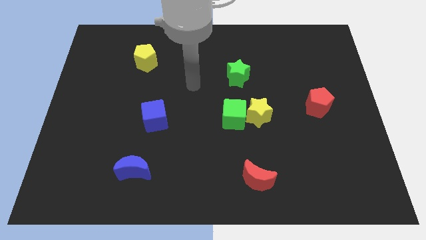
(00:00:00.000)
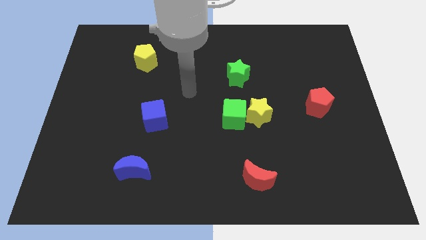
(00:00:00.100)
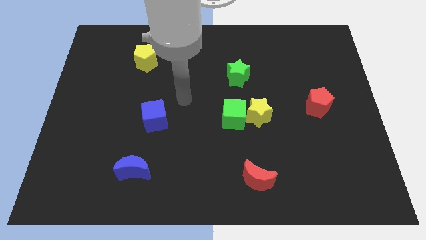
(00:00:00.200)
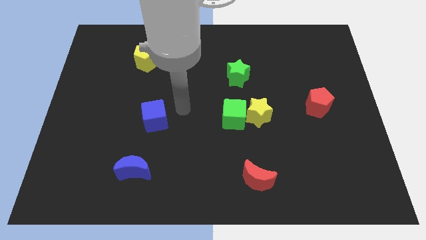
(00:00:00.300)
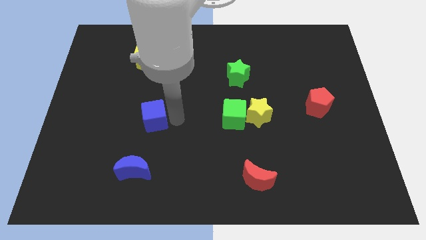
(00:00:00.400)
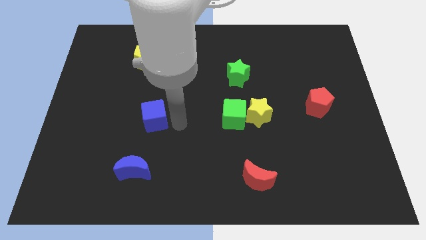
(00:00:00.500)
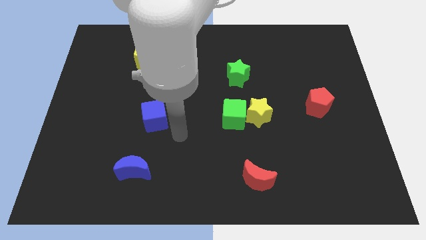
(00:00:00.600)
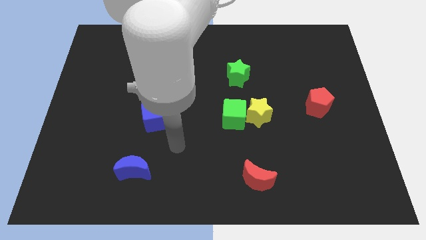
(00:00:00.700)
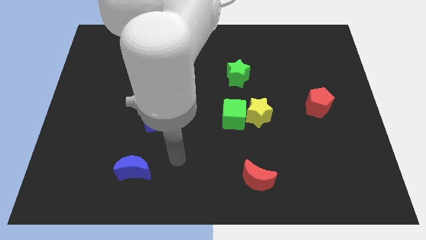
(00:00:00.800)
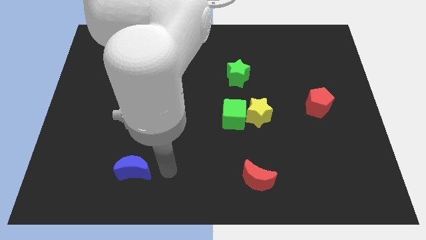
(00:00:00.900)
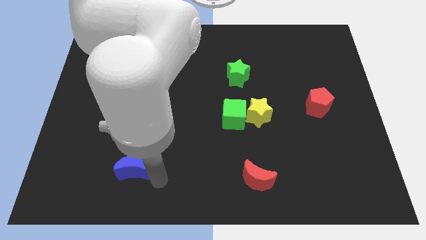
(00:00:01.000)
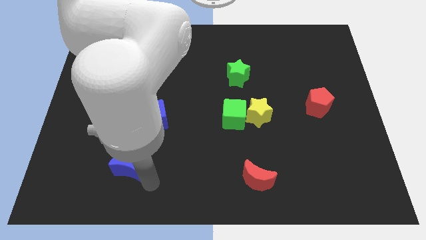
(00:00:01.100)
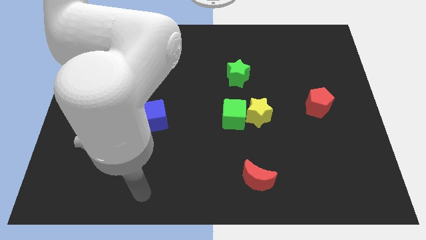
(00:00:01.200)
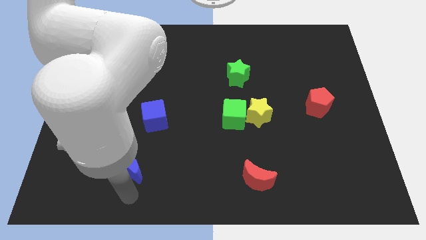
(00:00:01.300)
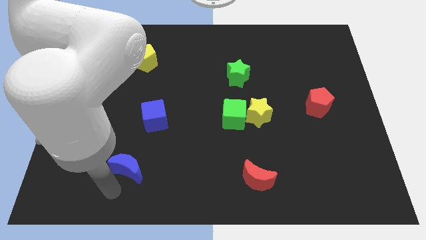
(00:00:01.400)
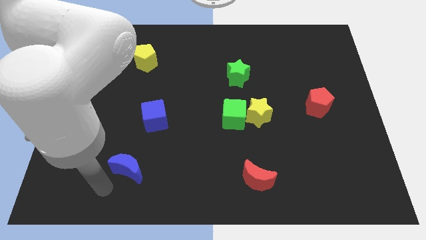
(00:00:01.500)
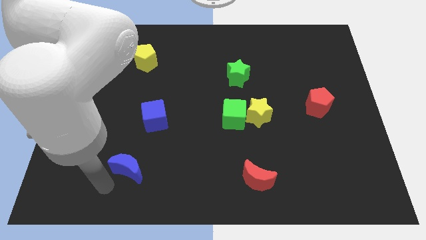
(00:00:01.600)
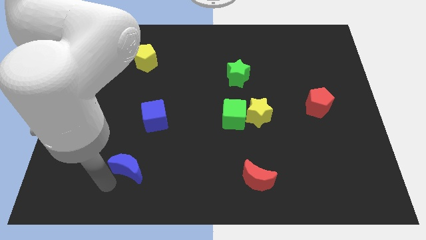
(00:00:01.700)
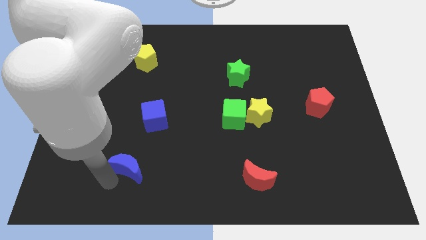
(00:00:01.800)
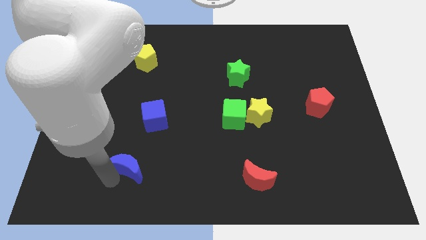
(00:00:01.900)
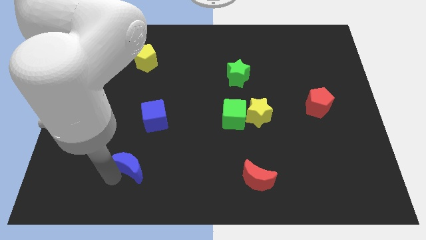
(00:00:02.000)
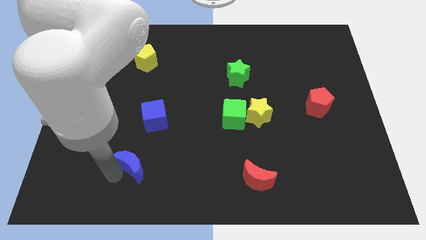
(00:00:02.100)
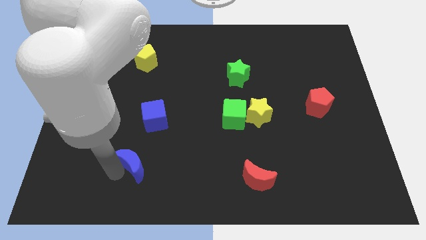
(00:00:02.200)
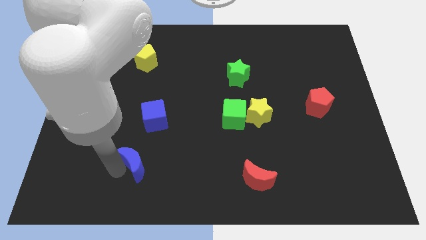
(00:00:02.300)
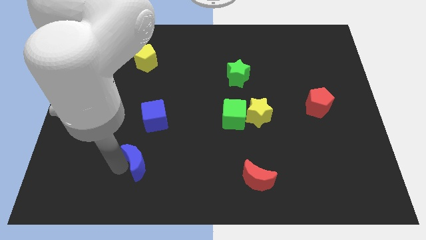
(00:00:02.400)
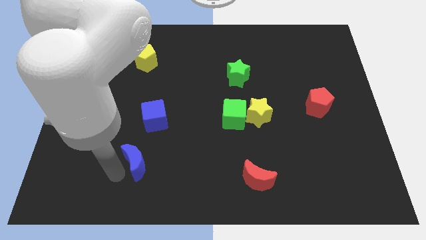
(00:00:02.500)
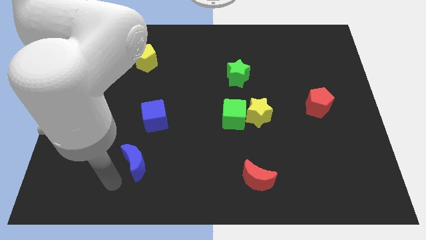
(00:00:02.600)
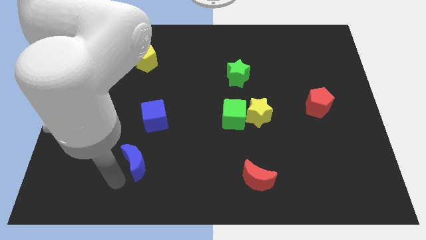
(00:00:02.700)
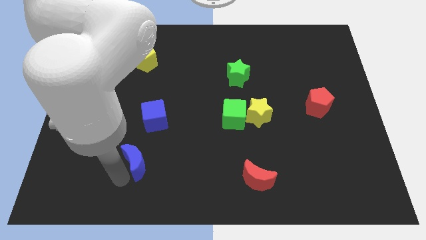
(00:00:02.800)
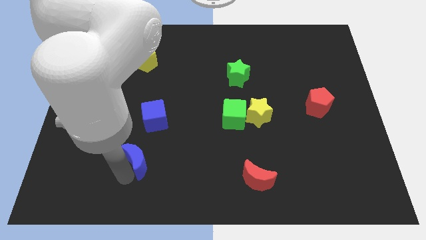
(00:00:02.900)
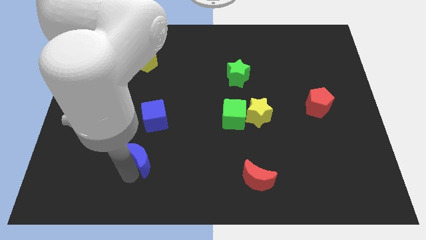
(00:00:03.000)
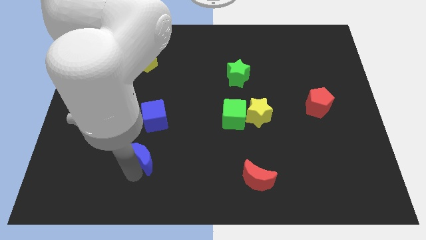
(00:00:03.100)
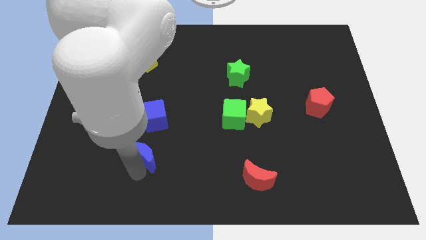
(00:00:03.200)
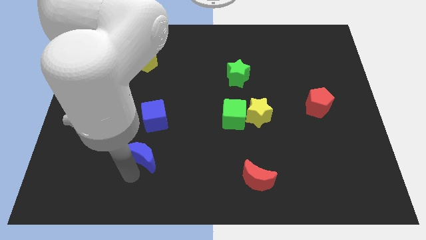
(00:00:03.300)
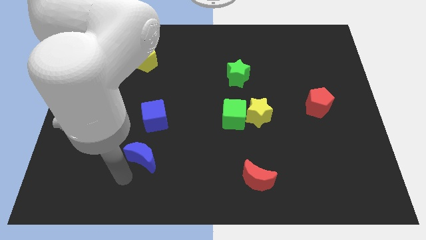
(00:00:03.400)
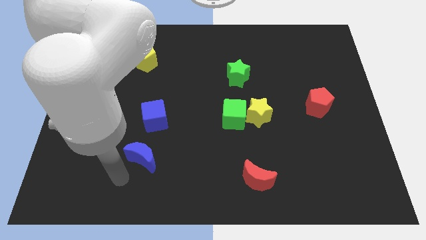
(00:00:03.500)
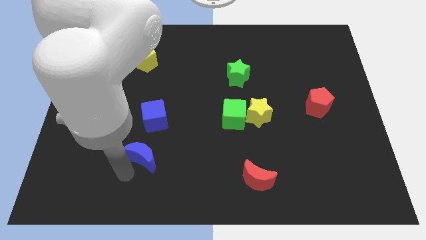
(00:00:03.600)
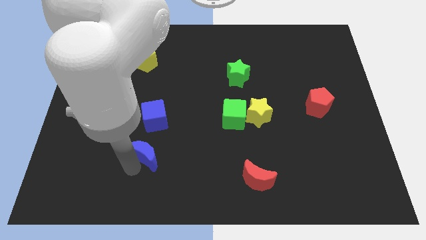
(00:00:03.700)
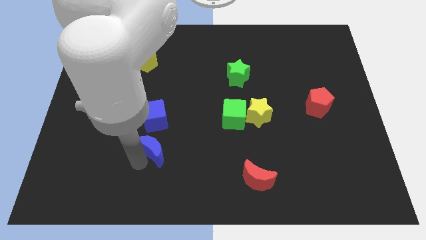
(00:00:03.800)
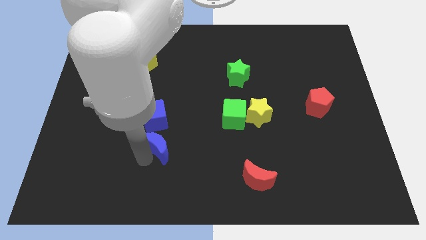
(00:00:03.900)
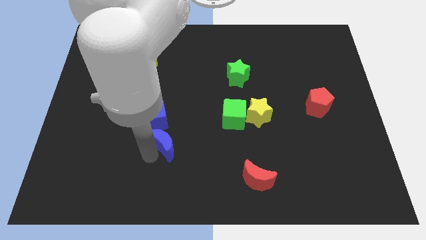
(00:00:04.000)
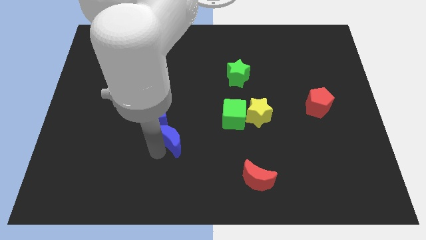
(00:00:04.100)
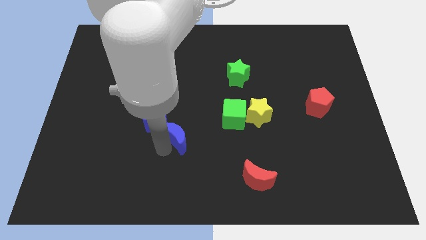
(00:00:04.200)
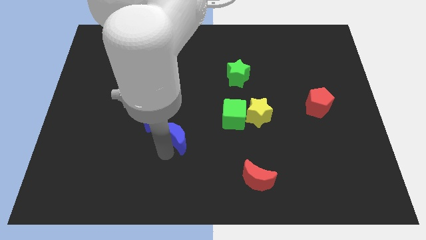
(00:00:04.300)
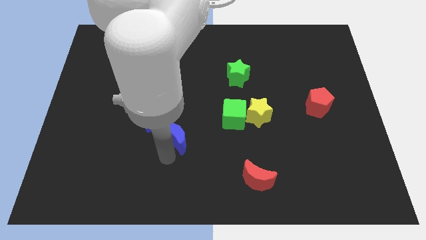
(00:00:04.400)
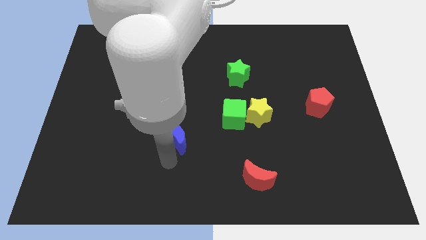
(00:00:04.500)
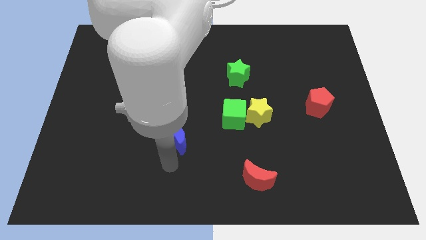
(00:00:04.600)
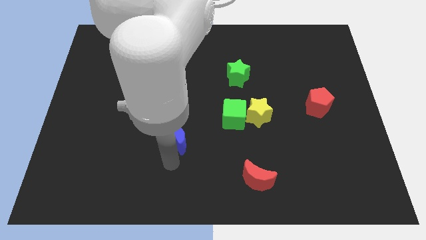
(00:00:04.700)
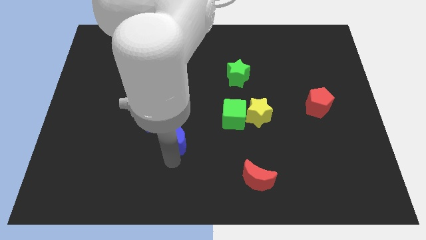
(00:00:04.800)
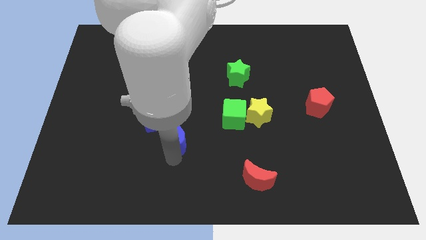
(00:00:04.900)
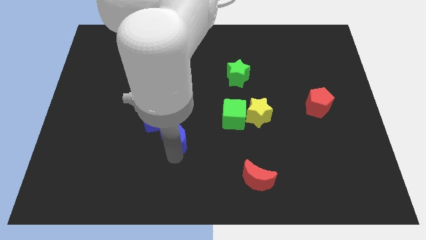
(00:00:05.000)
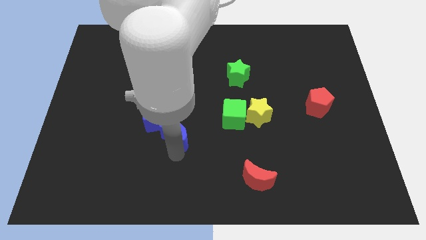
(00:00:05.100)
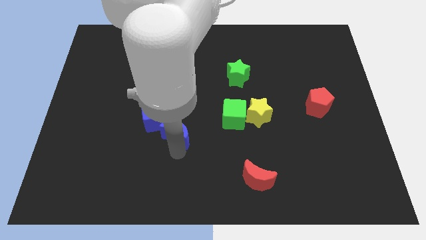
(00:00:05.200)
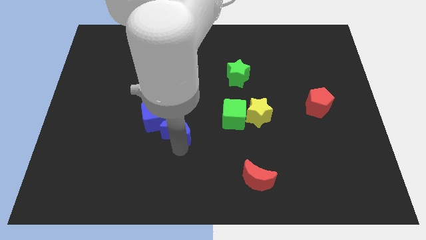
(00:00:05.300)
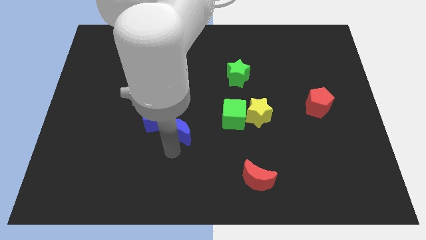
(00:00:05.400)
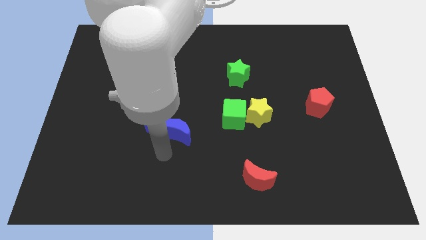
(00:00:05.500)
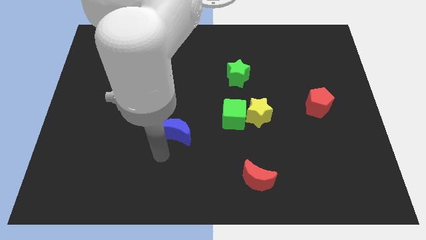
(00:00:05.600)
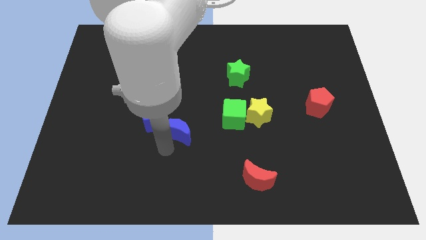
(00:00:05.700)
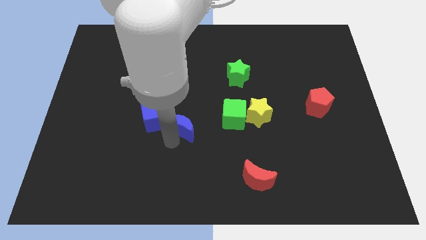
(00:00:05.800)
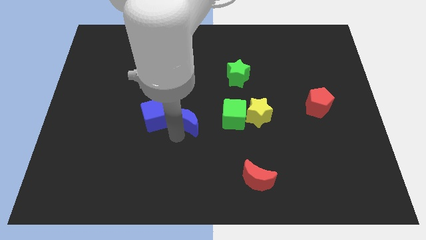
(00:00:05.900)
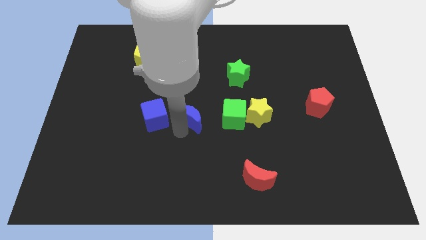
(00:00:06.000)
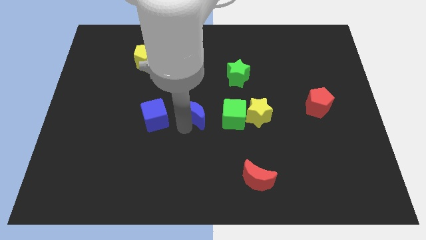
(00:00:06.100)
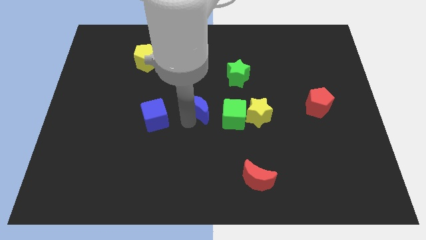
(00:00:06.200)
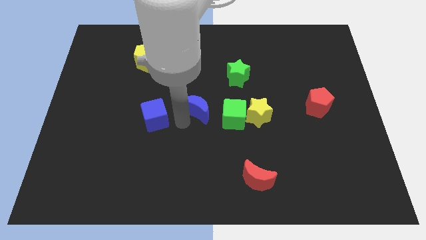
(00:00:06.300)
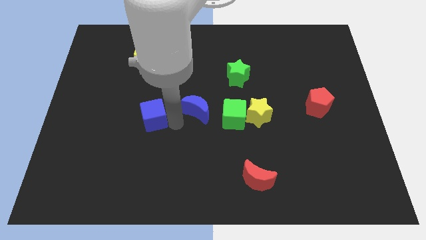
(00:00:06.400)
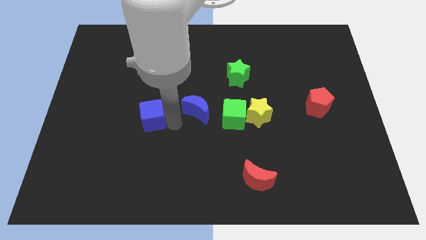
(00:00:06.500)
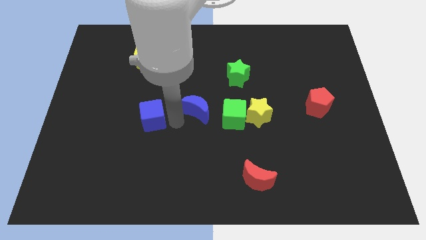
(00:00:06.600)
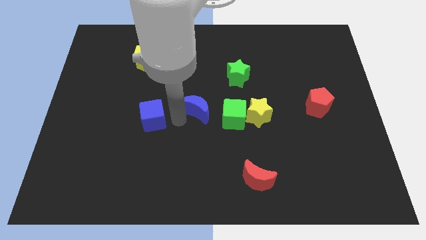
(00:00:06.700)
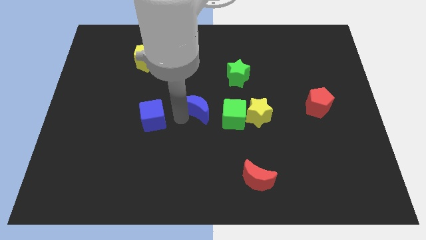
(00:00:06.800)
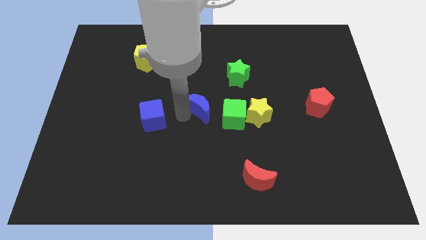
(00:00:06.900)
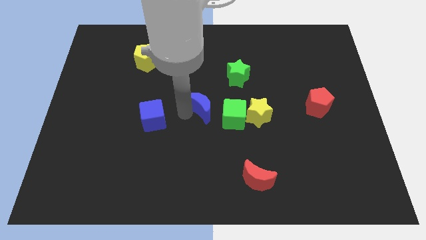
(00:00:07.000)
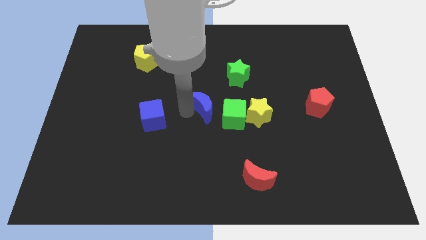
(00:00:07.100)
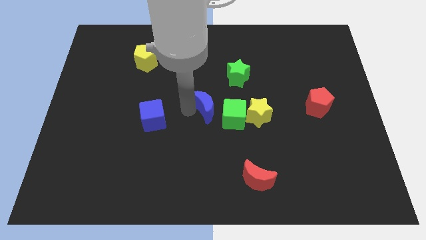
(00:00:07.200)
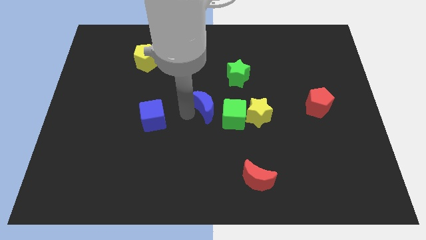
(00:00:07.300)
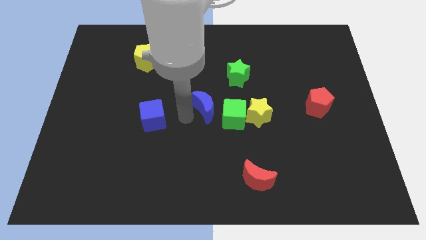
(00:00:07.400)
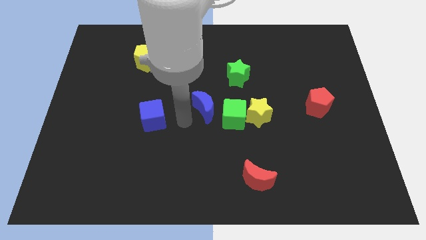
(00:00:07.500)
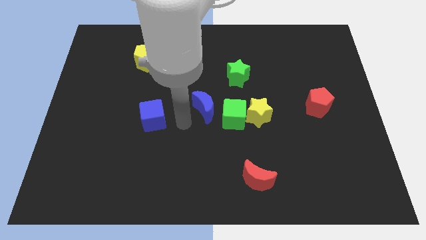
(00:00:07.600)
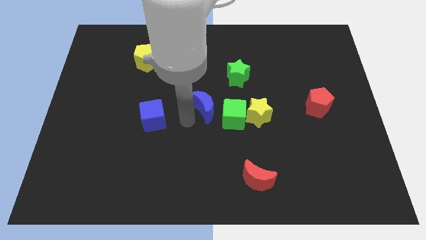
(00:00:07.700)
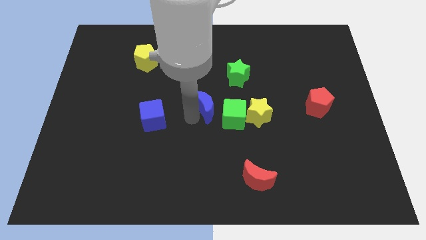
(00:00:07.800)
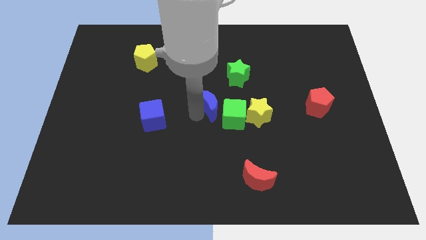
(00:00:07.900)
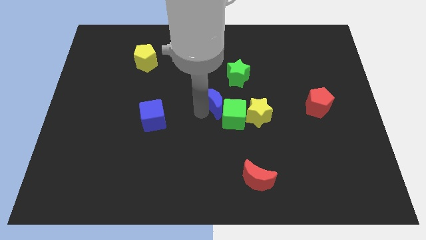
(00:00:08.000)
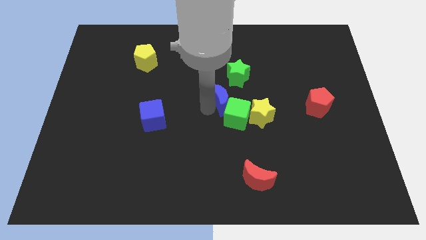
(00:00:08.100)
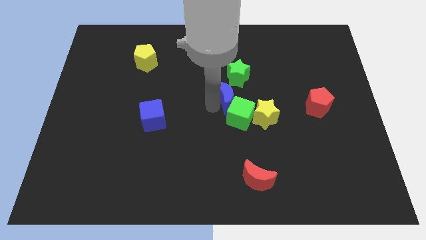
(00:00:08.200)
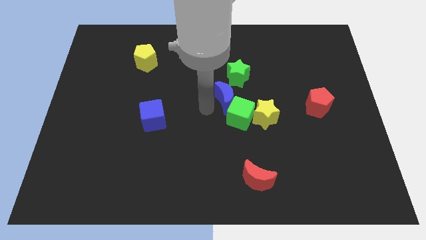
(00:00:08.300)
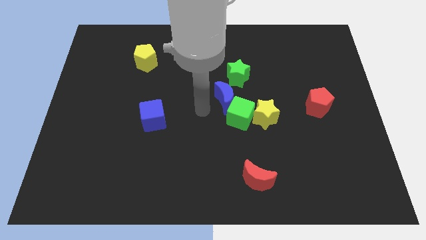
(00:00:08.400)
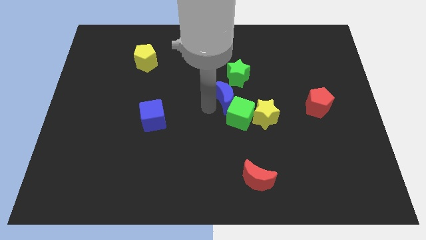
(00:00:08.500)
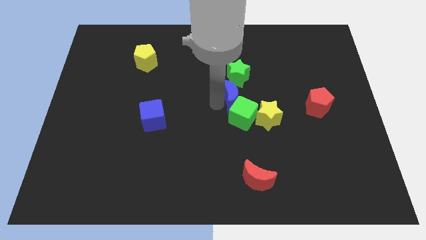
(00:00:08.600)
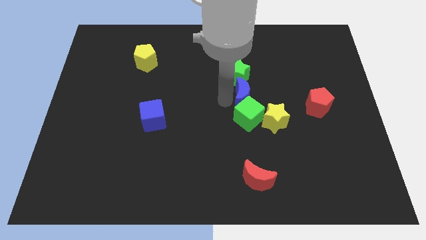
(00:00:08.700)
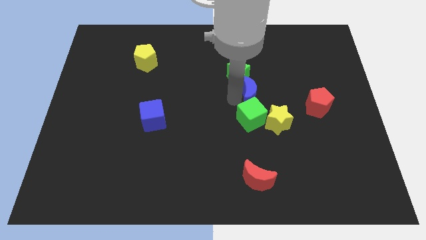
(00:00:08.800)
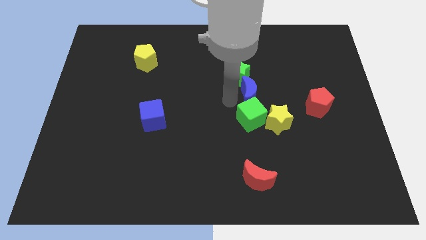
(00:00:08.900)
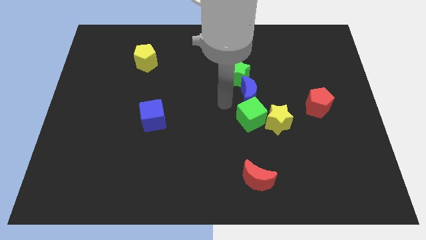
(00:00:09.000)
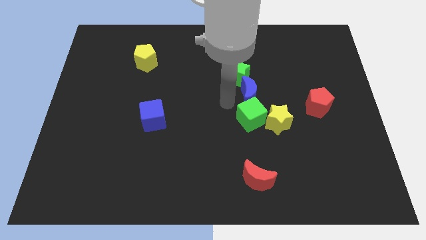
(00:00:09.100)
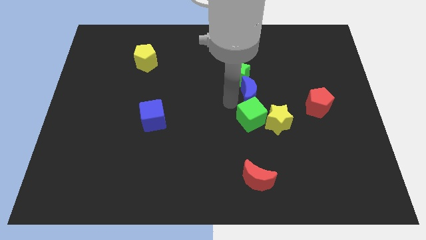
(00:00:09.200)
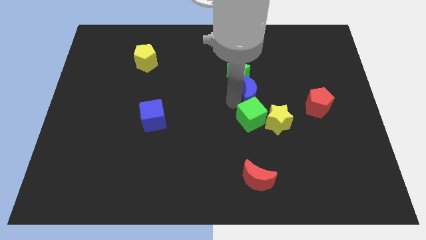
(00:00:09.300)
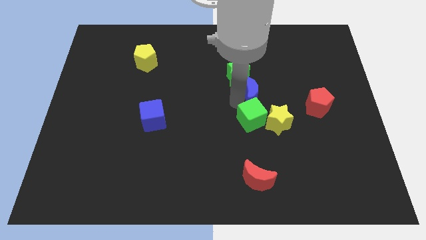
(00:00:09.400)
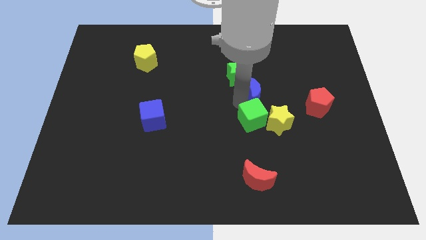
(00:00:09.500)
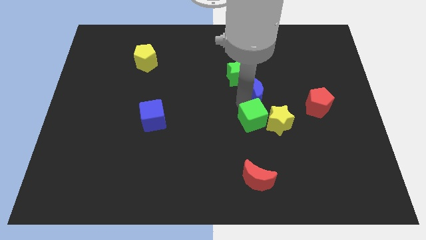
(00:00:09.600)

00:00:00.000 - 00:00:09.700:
slide the blue moon to the top of the yellow star
